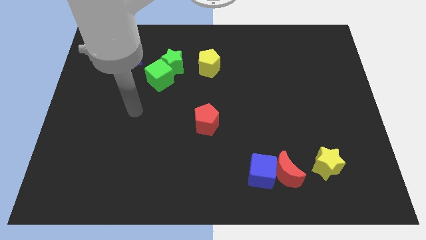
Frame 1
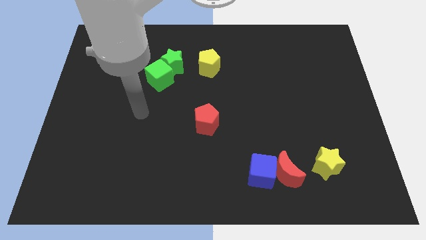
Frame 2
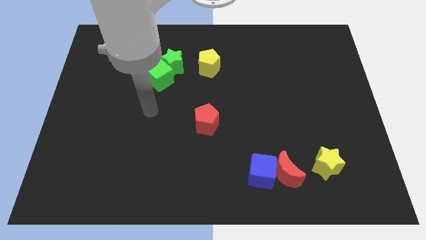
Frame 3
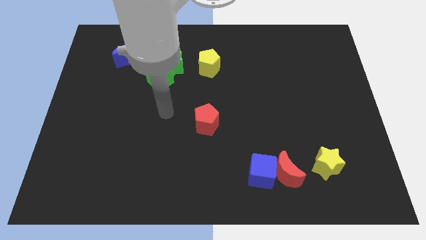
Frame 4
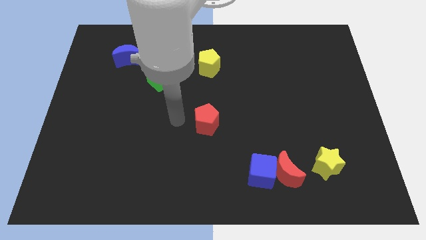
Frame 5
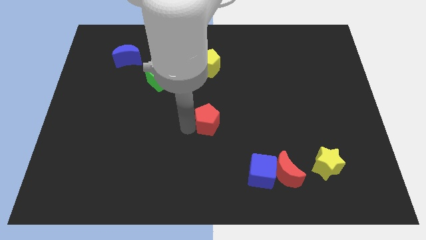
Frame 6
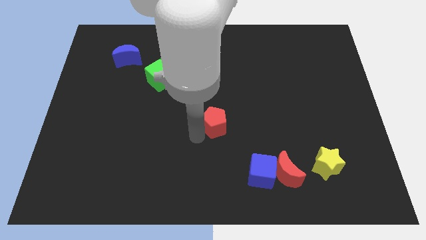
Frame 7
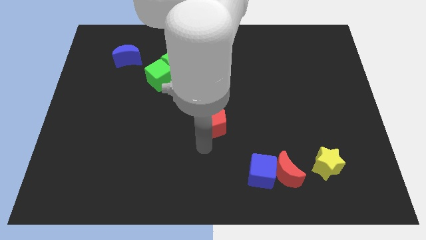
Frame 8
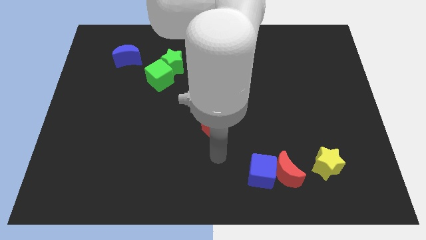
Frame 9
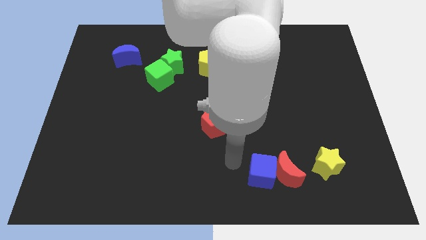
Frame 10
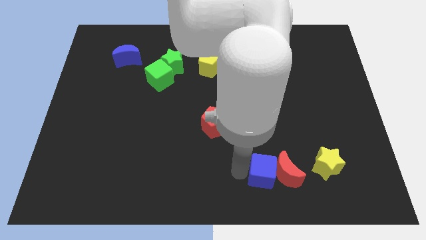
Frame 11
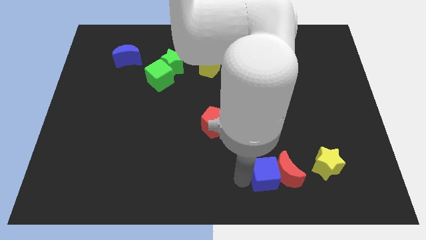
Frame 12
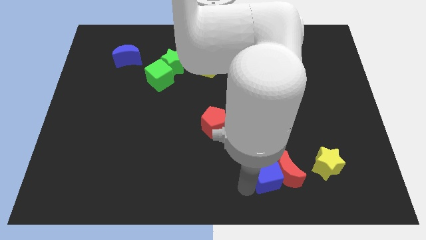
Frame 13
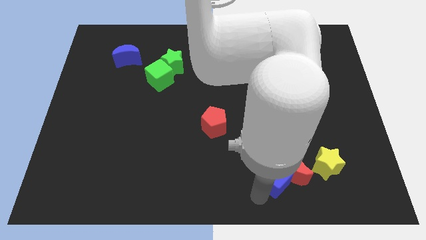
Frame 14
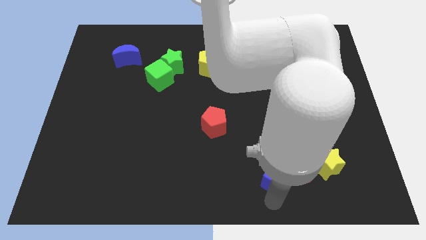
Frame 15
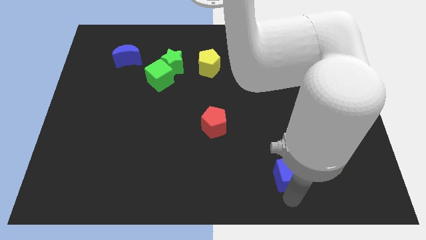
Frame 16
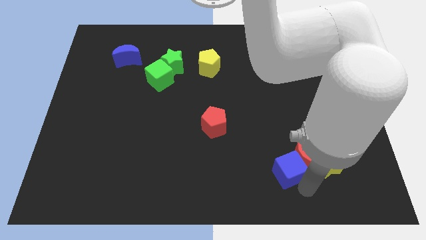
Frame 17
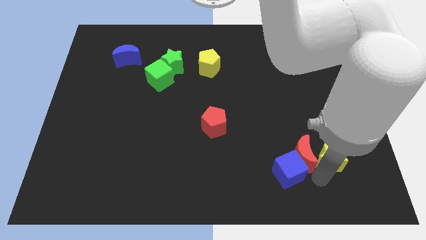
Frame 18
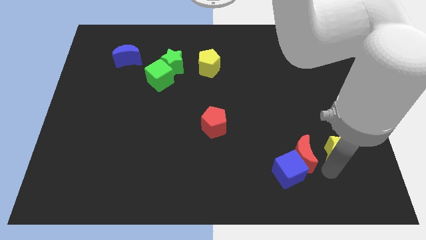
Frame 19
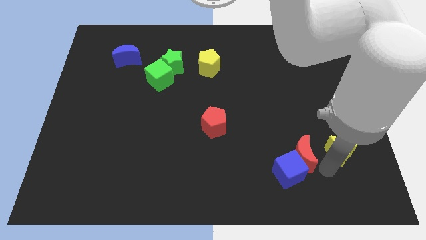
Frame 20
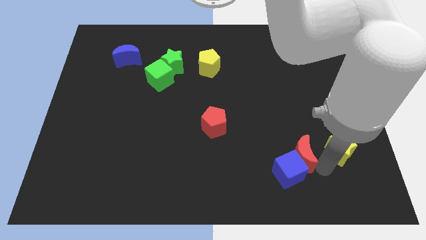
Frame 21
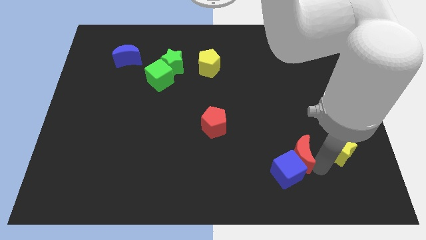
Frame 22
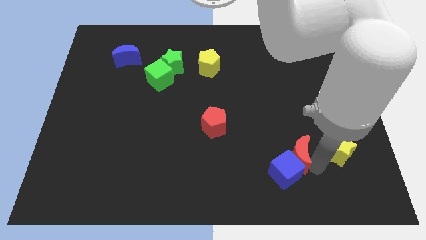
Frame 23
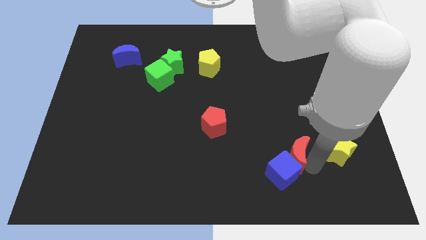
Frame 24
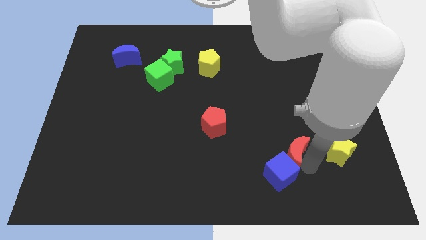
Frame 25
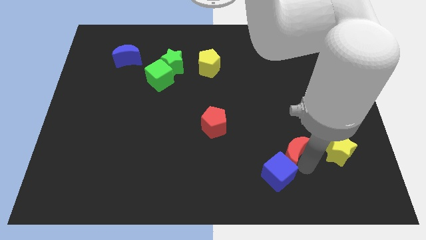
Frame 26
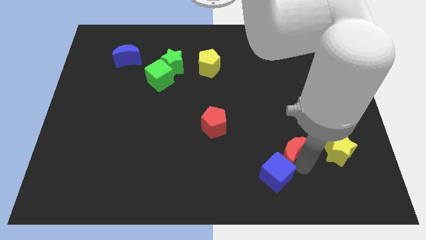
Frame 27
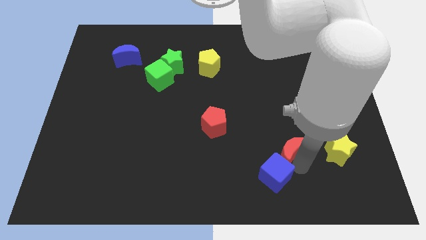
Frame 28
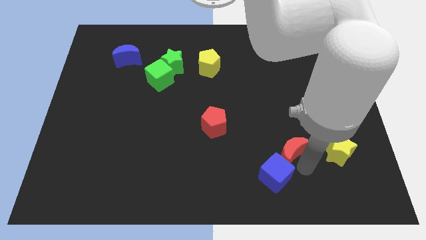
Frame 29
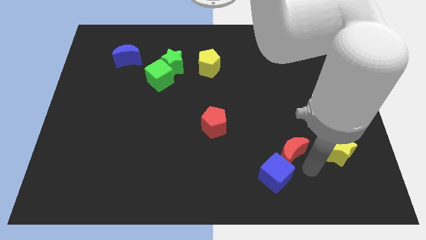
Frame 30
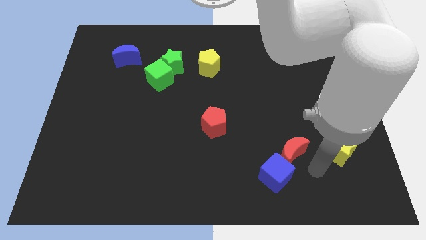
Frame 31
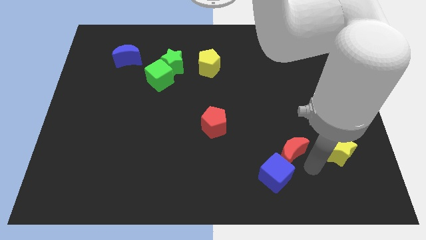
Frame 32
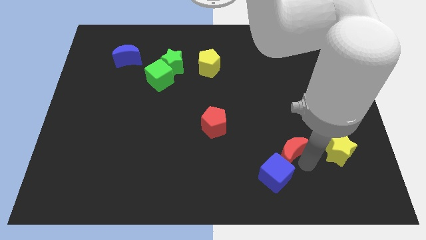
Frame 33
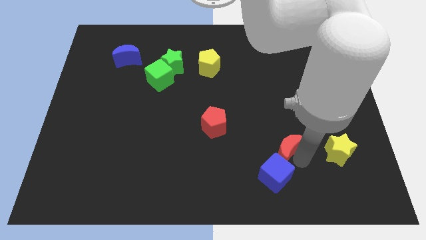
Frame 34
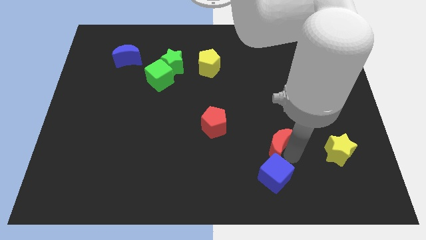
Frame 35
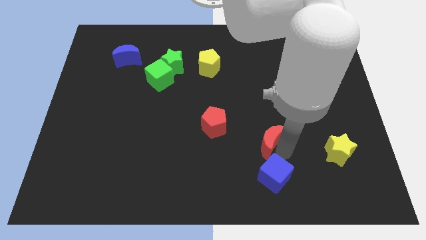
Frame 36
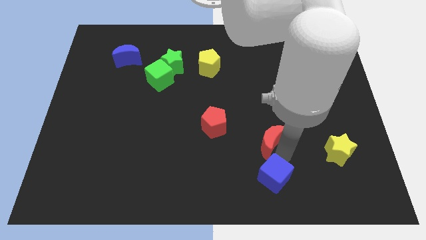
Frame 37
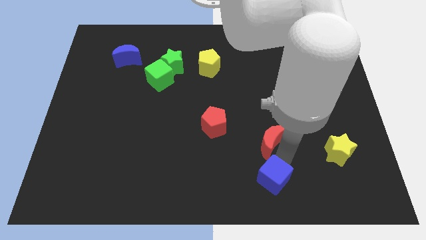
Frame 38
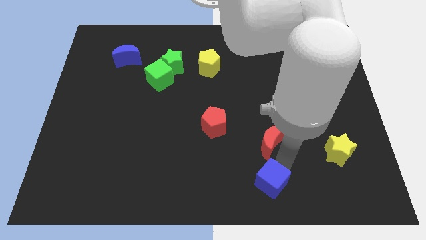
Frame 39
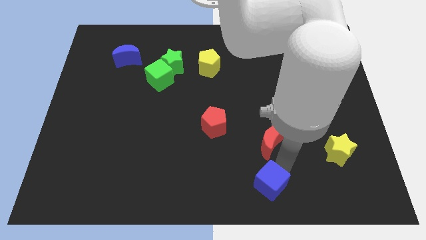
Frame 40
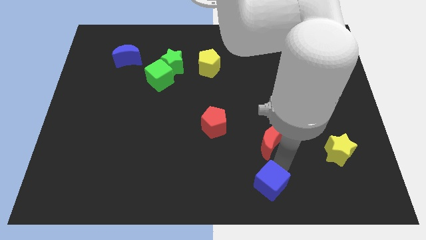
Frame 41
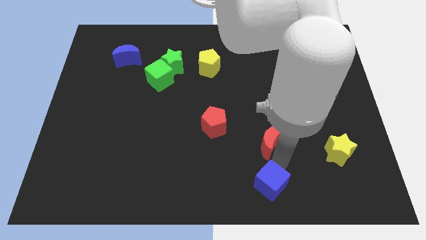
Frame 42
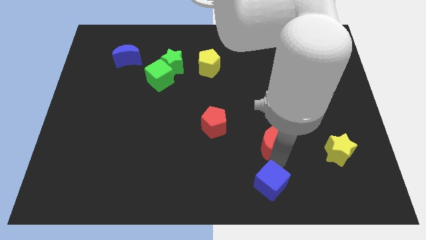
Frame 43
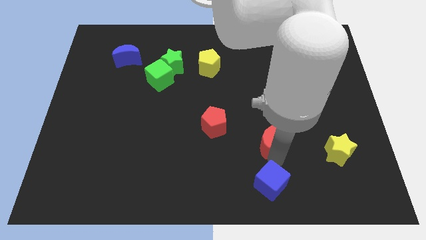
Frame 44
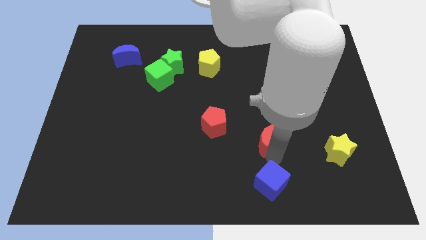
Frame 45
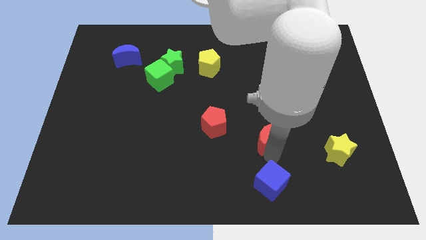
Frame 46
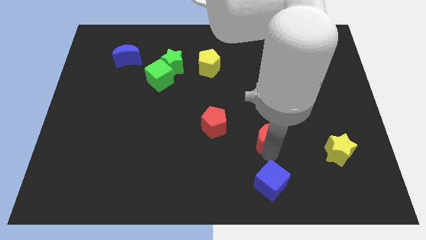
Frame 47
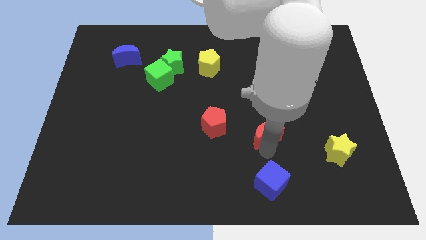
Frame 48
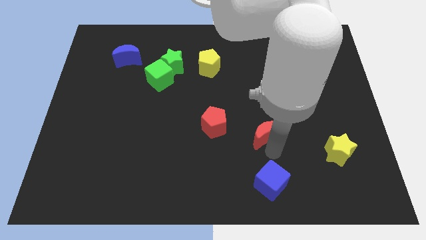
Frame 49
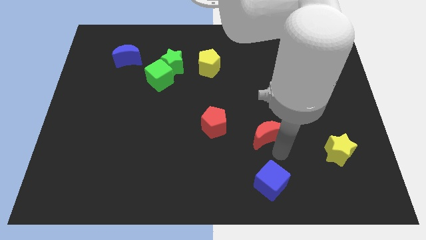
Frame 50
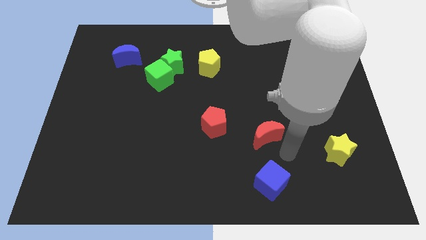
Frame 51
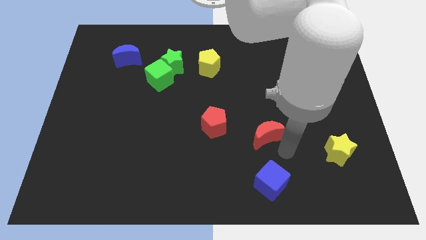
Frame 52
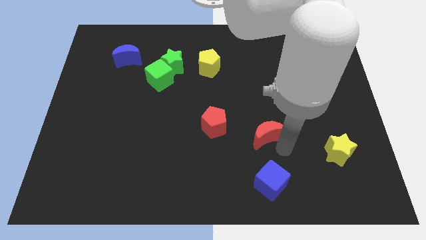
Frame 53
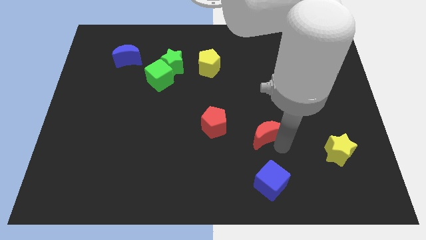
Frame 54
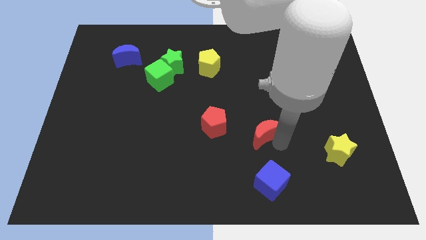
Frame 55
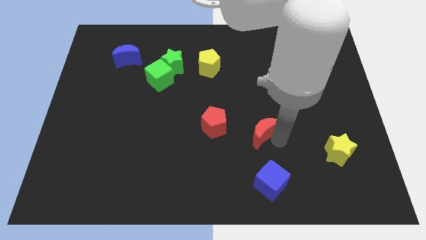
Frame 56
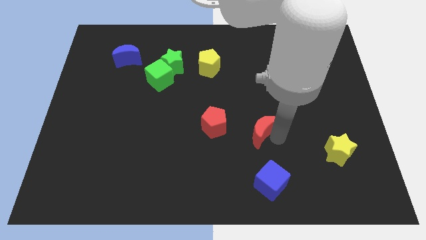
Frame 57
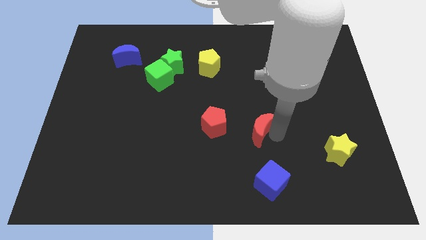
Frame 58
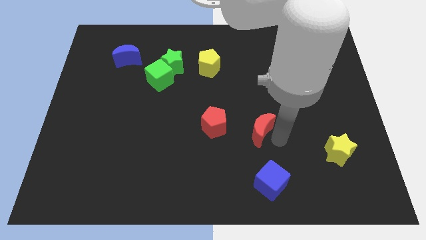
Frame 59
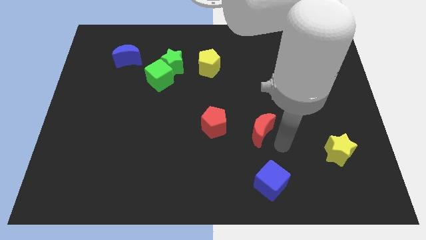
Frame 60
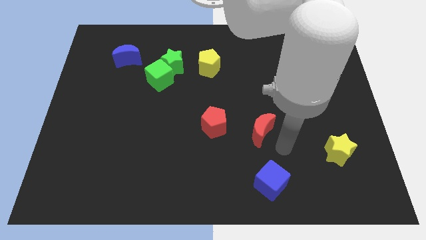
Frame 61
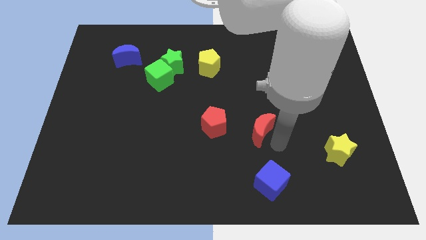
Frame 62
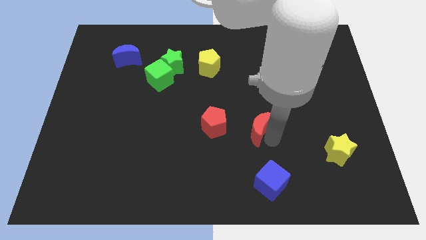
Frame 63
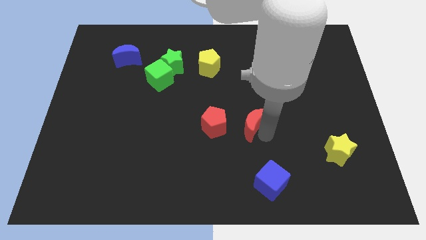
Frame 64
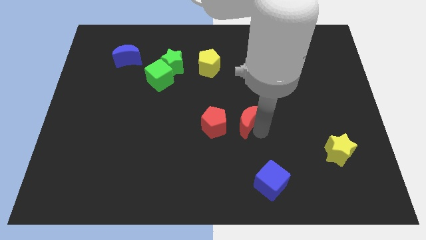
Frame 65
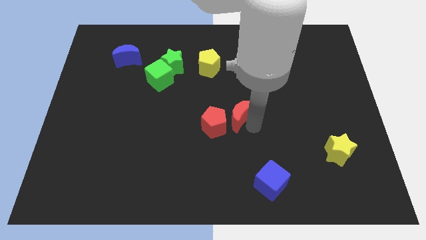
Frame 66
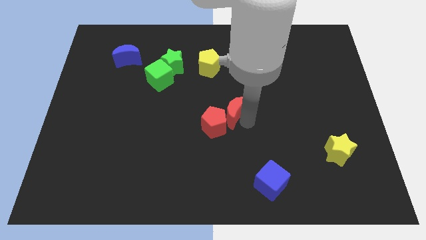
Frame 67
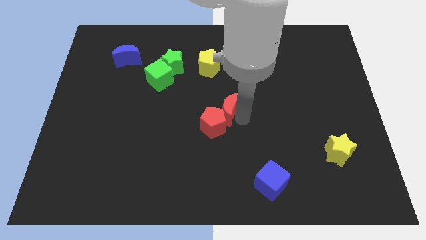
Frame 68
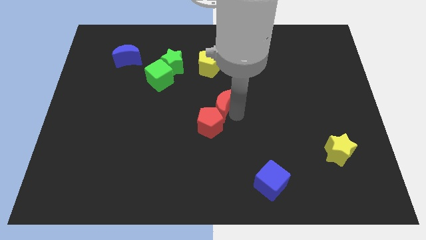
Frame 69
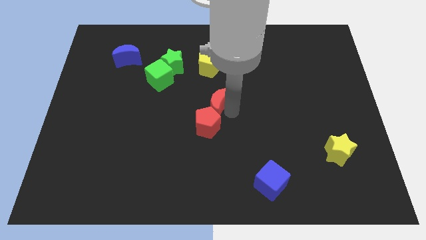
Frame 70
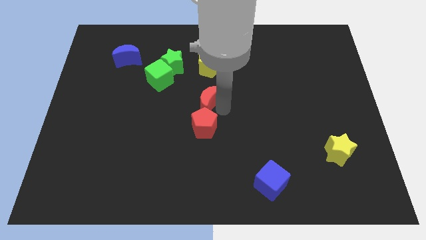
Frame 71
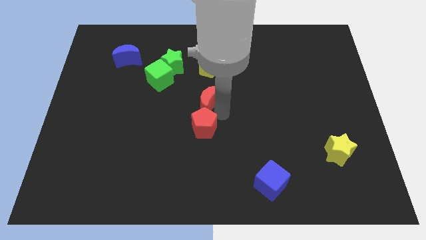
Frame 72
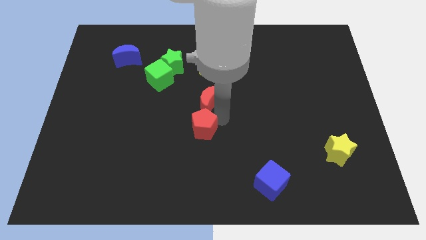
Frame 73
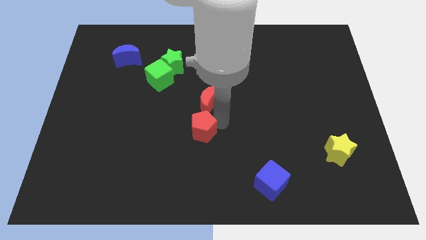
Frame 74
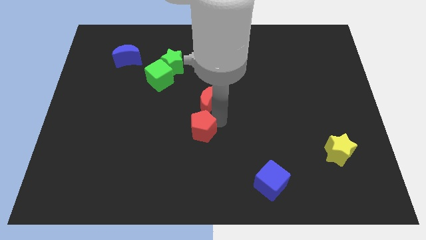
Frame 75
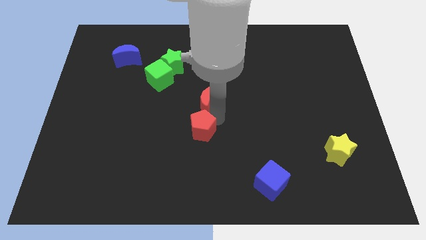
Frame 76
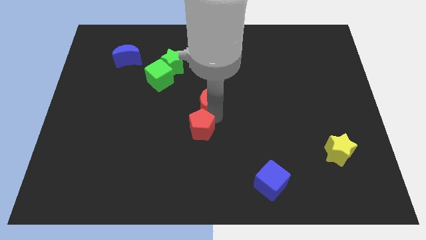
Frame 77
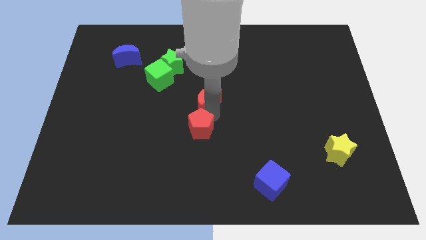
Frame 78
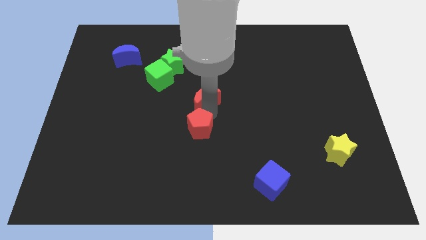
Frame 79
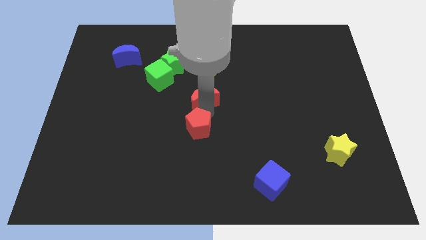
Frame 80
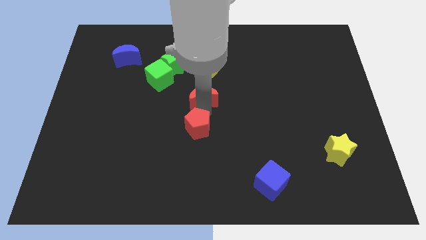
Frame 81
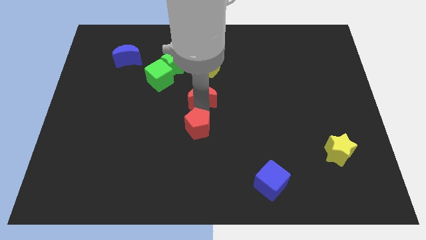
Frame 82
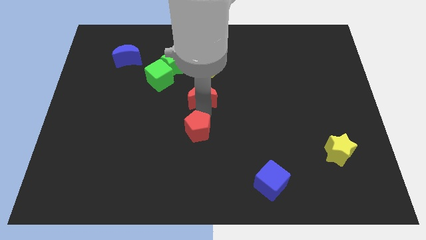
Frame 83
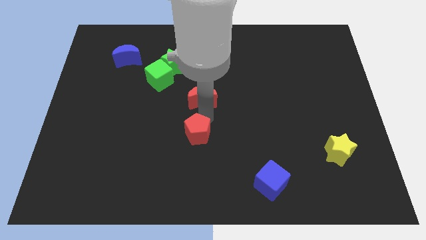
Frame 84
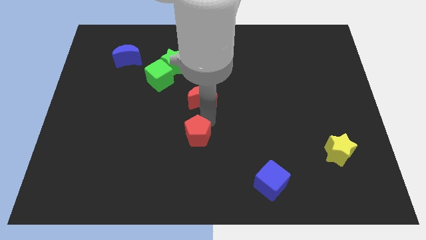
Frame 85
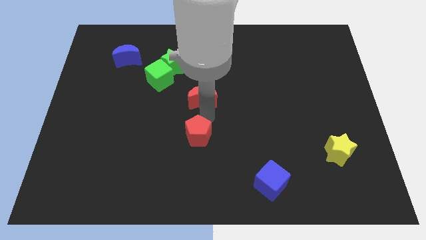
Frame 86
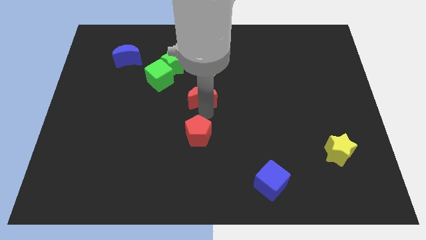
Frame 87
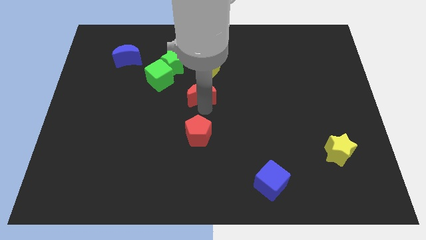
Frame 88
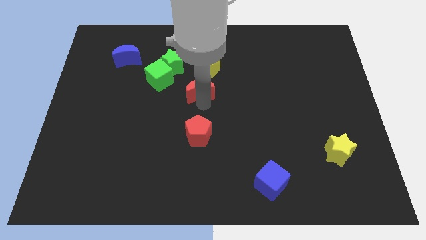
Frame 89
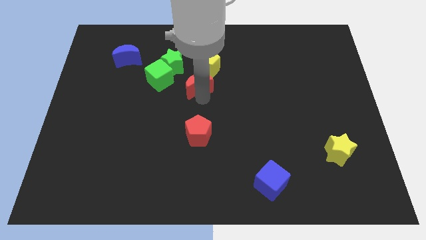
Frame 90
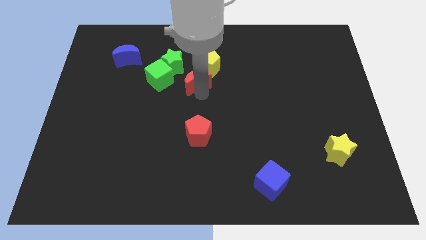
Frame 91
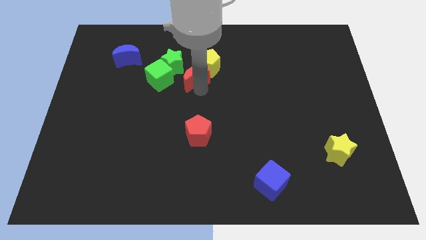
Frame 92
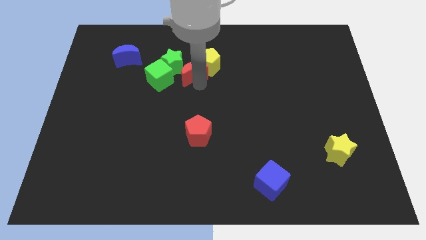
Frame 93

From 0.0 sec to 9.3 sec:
slide the red moon close to the green star
